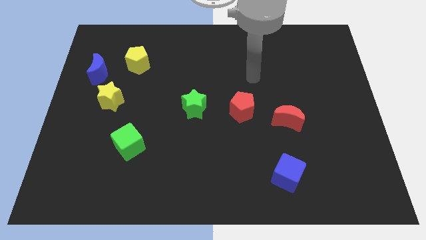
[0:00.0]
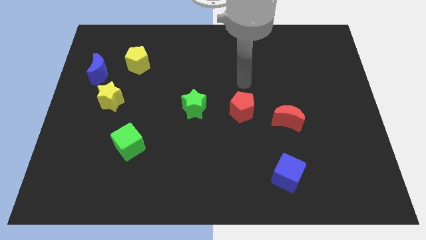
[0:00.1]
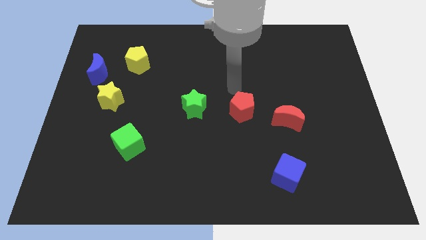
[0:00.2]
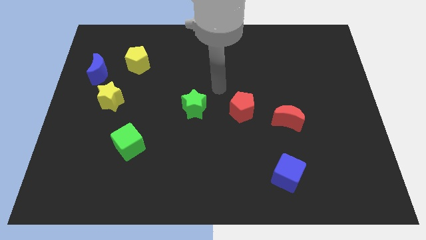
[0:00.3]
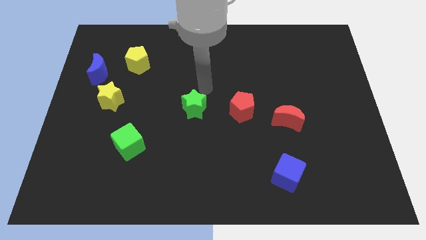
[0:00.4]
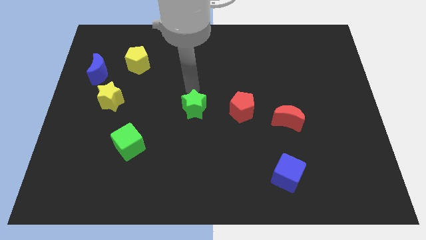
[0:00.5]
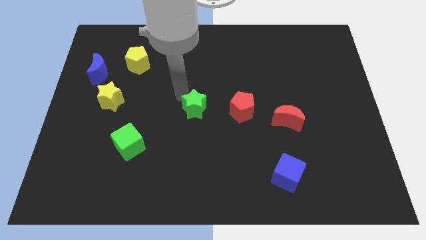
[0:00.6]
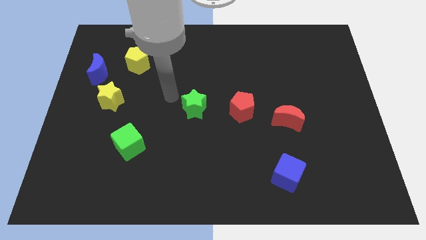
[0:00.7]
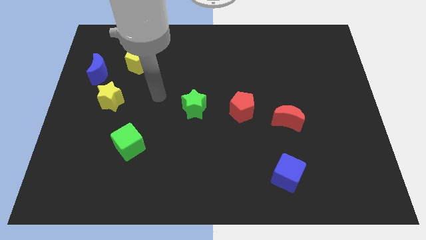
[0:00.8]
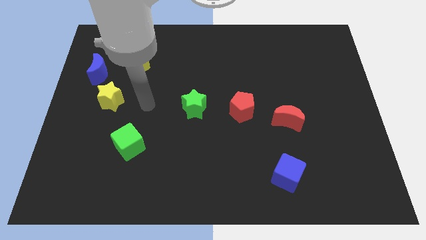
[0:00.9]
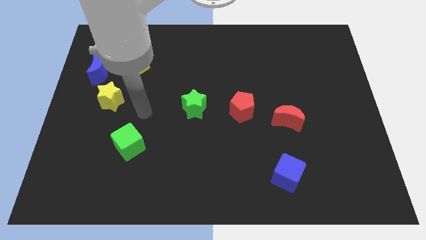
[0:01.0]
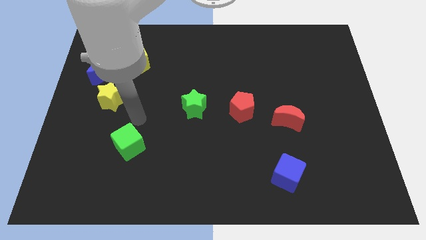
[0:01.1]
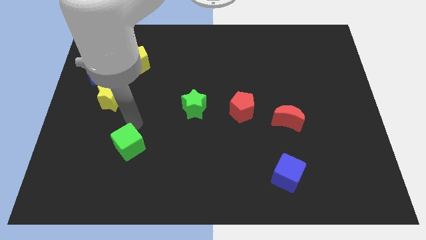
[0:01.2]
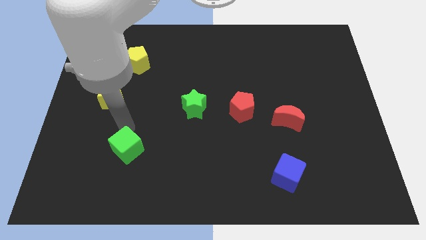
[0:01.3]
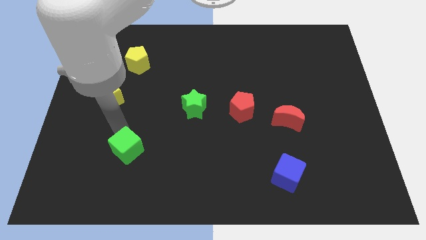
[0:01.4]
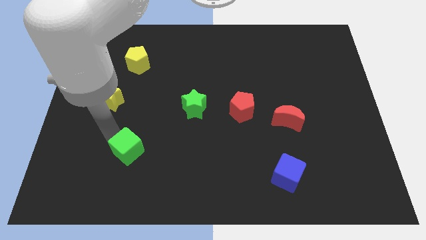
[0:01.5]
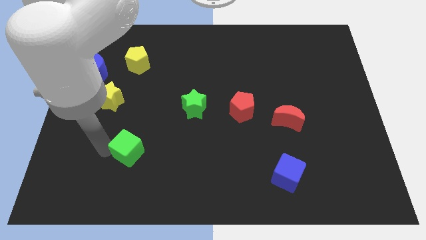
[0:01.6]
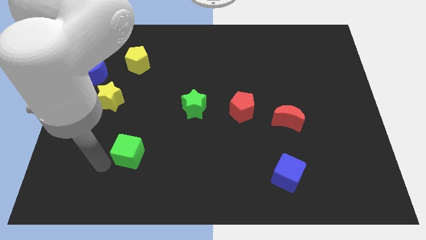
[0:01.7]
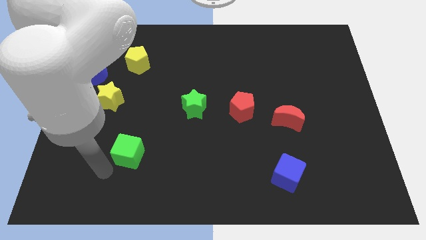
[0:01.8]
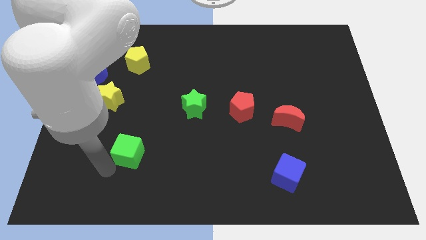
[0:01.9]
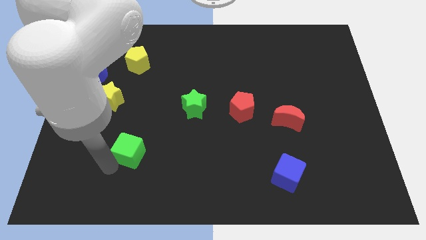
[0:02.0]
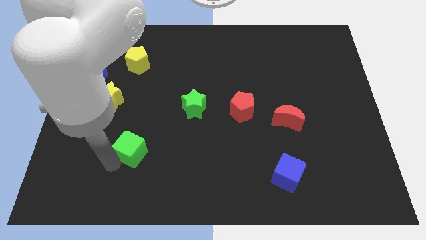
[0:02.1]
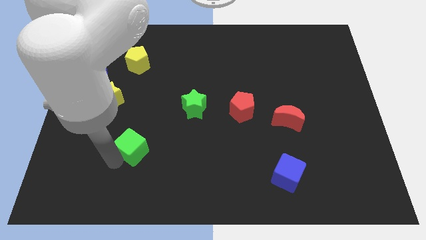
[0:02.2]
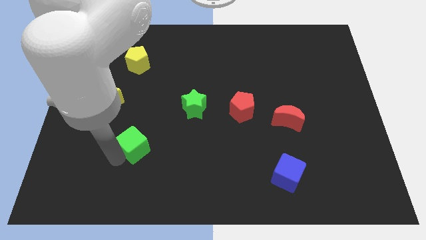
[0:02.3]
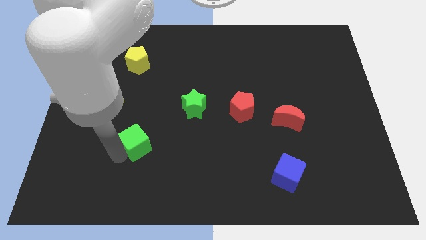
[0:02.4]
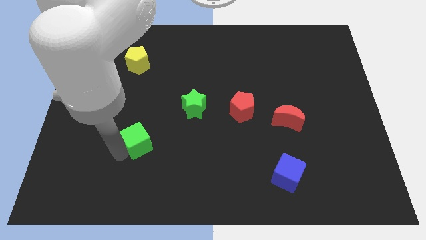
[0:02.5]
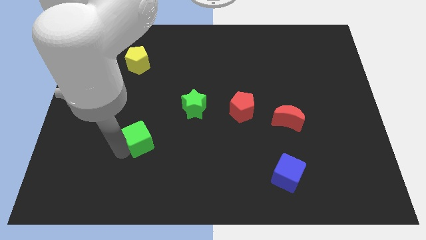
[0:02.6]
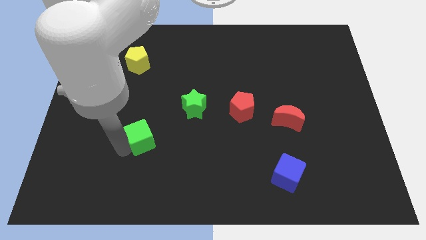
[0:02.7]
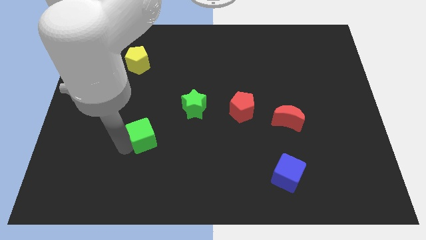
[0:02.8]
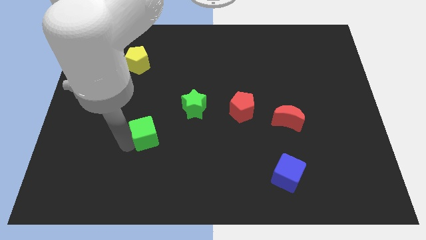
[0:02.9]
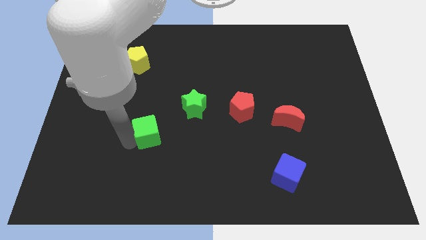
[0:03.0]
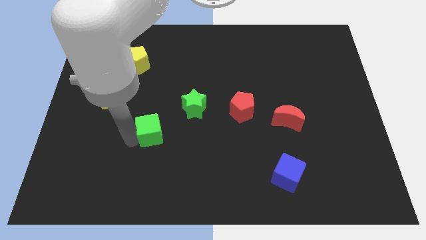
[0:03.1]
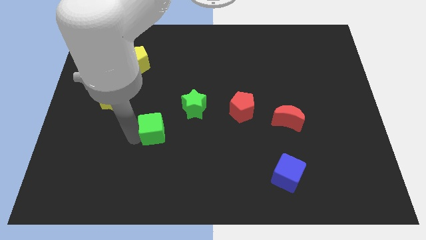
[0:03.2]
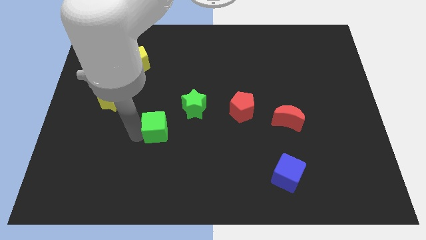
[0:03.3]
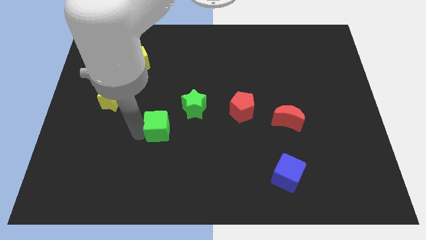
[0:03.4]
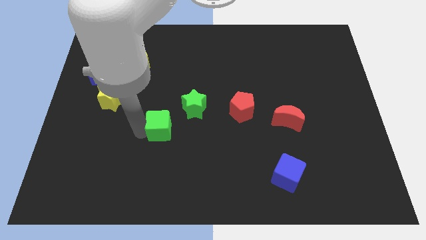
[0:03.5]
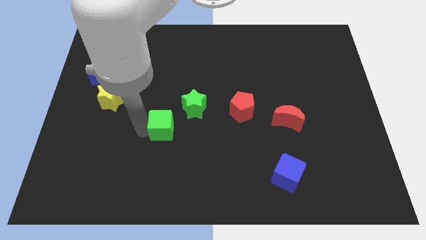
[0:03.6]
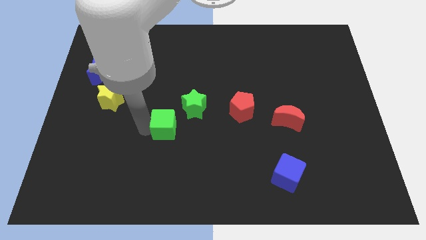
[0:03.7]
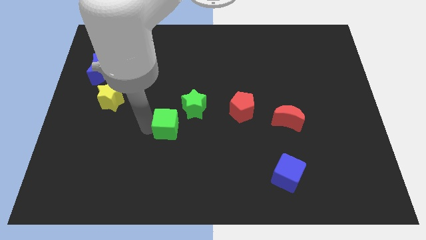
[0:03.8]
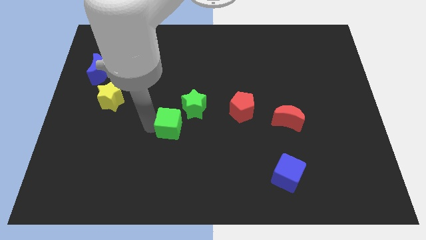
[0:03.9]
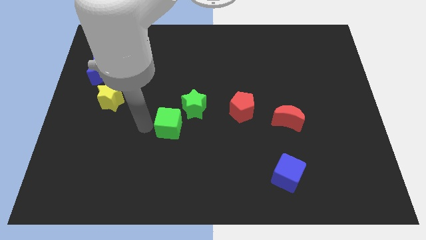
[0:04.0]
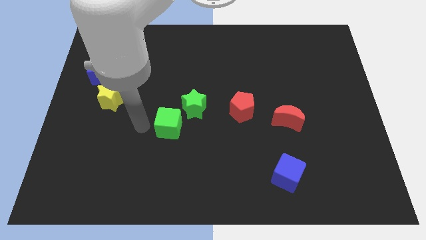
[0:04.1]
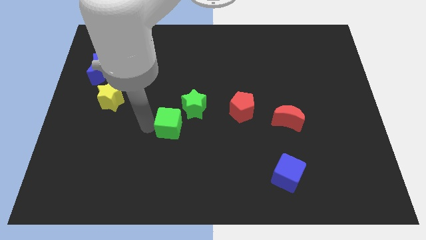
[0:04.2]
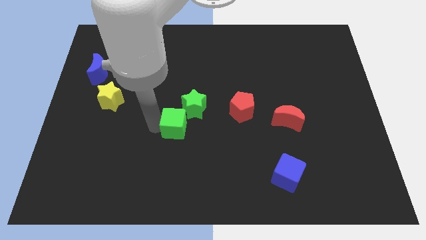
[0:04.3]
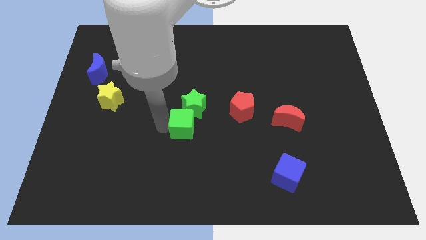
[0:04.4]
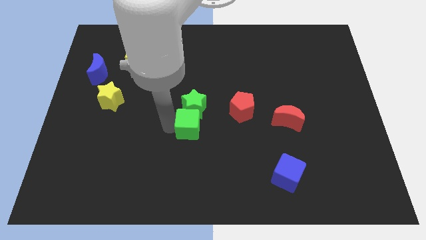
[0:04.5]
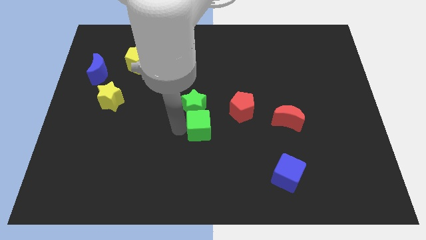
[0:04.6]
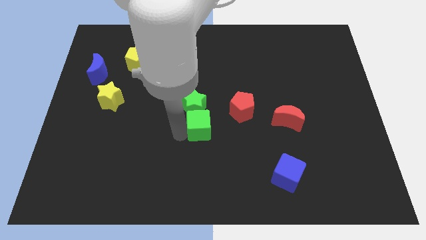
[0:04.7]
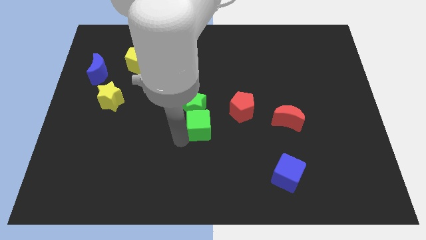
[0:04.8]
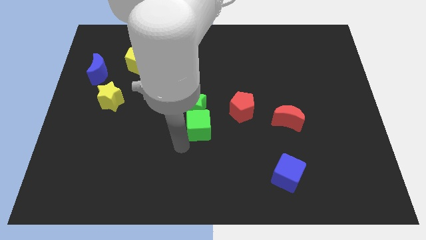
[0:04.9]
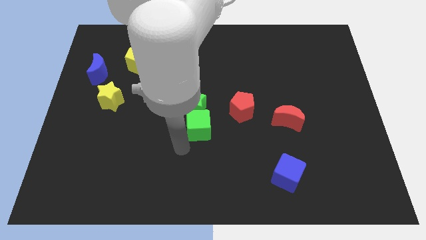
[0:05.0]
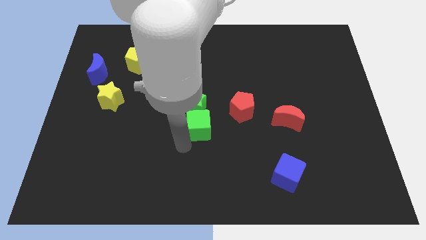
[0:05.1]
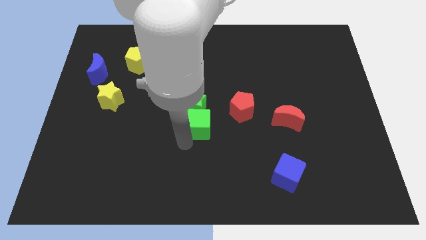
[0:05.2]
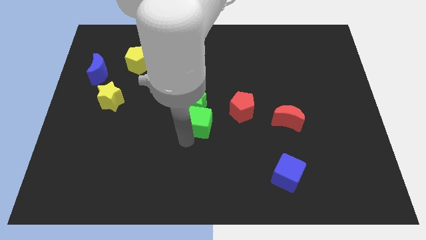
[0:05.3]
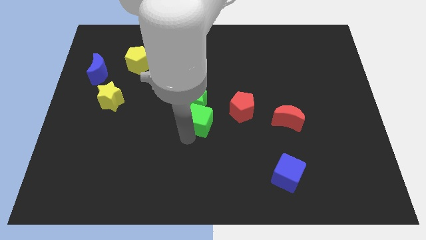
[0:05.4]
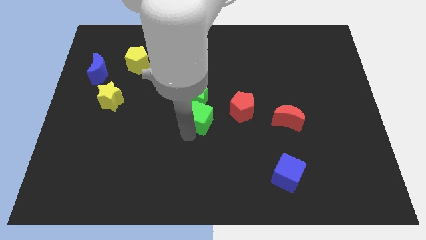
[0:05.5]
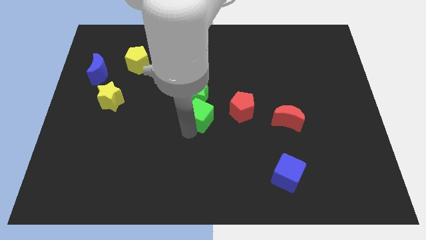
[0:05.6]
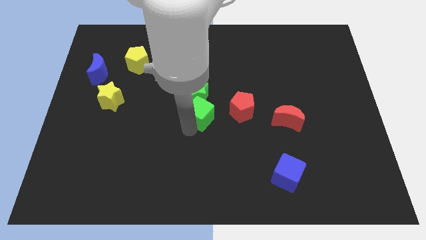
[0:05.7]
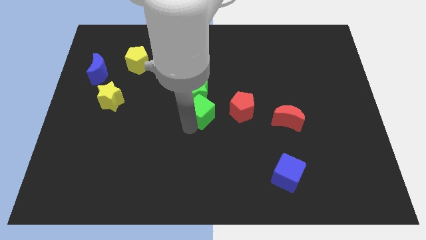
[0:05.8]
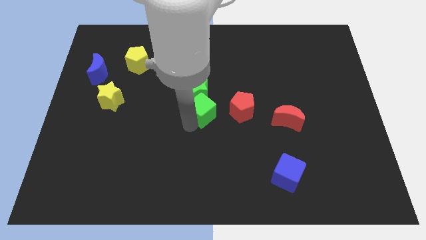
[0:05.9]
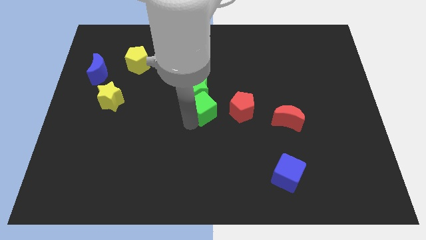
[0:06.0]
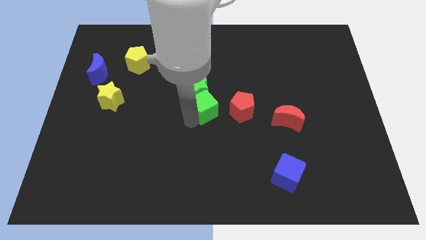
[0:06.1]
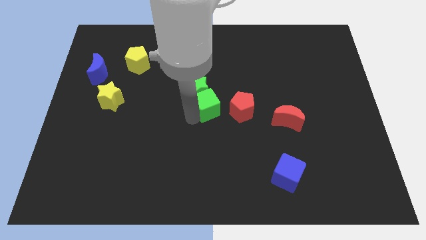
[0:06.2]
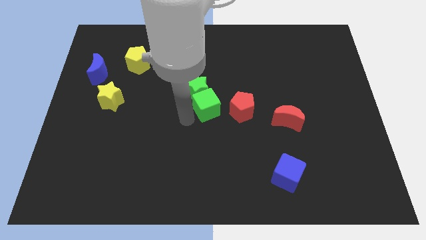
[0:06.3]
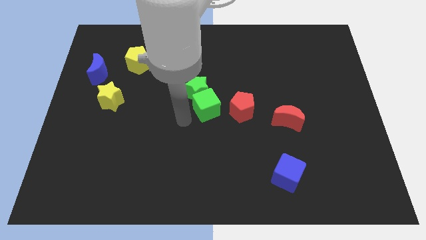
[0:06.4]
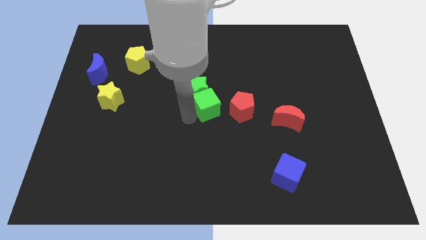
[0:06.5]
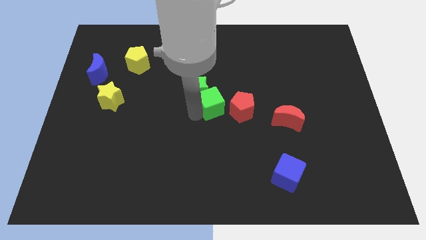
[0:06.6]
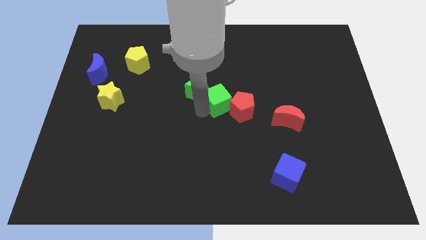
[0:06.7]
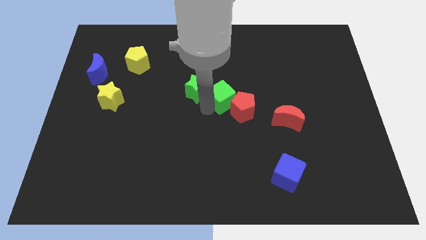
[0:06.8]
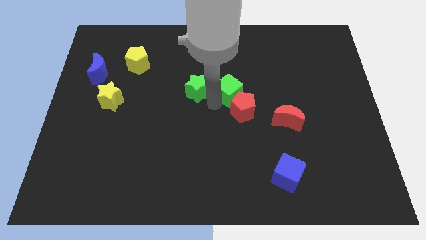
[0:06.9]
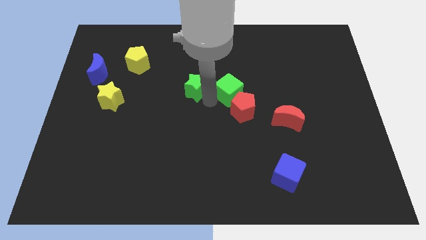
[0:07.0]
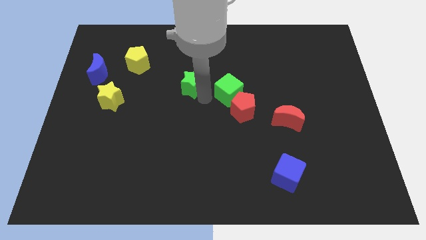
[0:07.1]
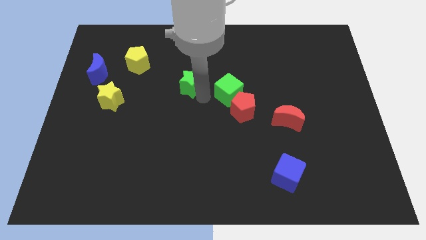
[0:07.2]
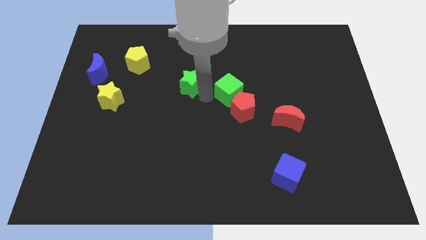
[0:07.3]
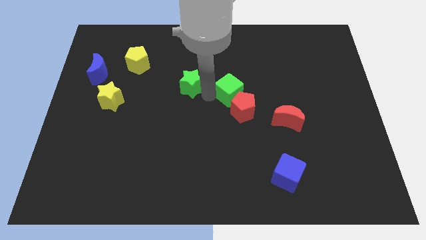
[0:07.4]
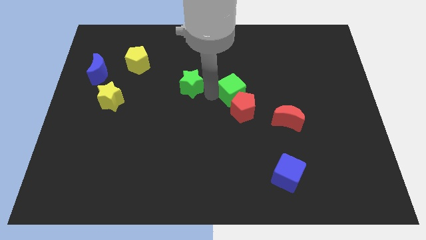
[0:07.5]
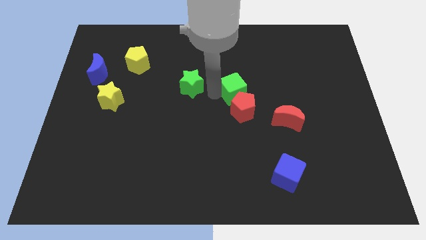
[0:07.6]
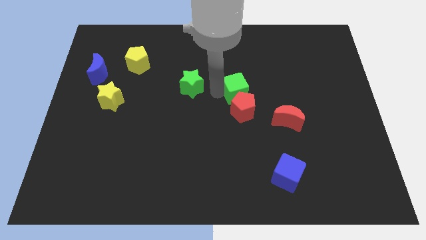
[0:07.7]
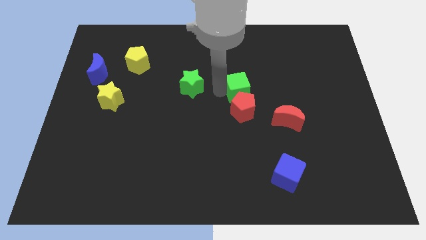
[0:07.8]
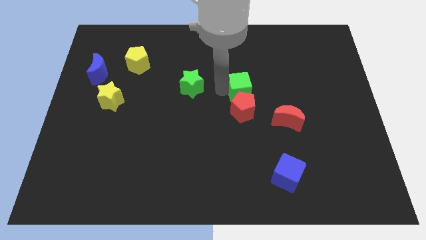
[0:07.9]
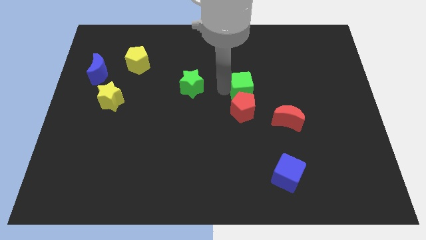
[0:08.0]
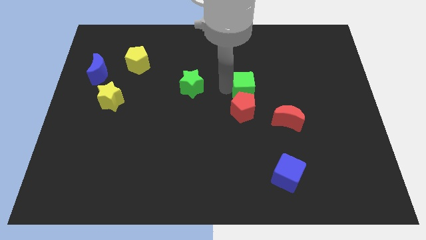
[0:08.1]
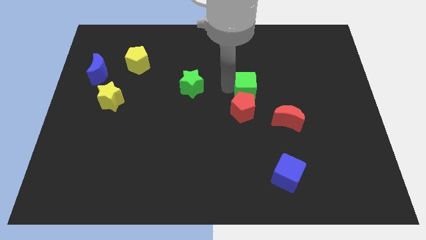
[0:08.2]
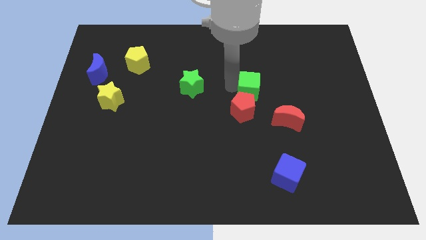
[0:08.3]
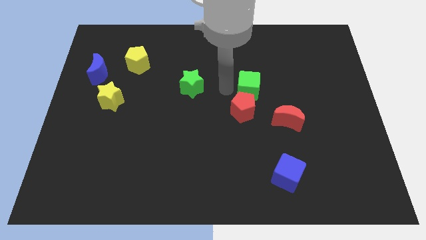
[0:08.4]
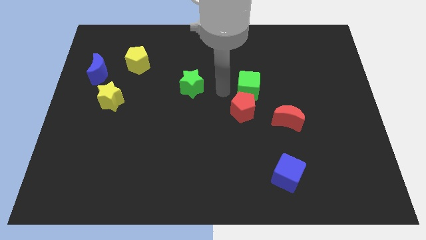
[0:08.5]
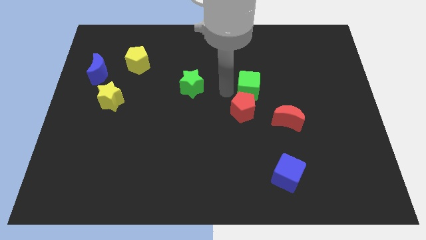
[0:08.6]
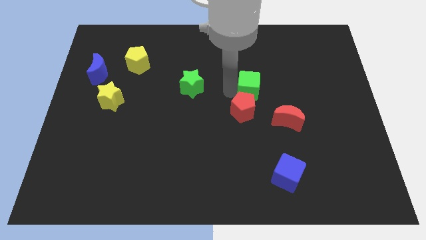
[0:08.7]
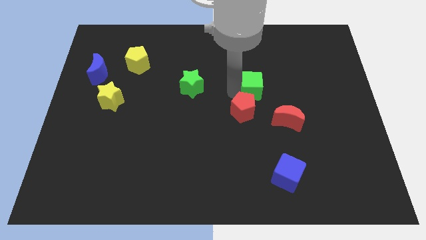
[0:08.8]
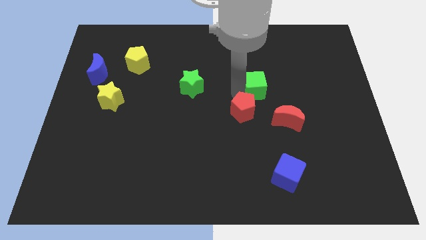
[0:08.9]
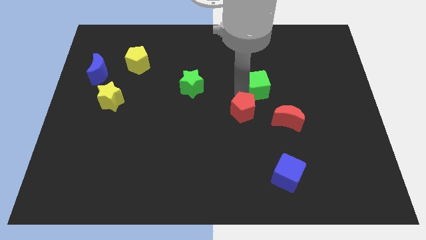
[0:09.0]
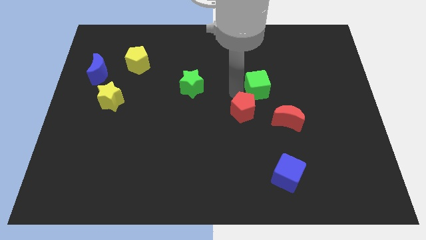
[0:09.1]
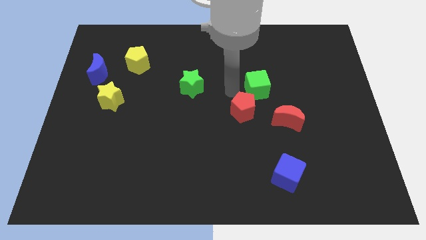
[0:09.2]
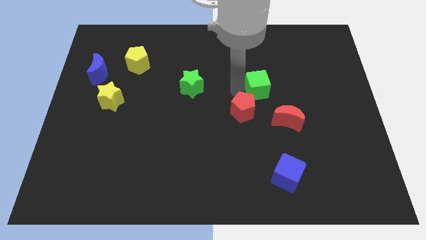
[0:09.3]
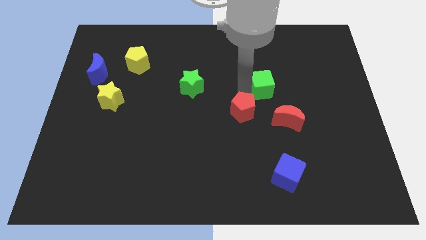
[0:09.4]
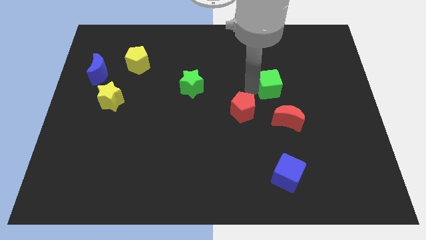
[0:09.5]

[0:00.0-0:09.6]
put the green cube to the top side of the red moon
